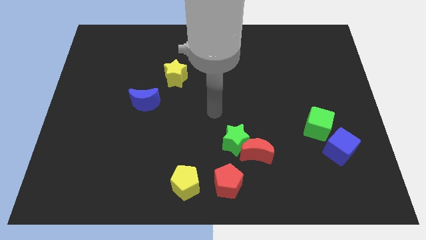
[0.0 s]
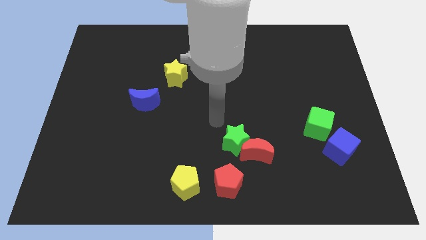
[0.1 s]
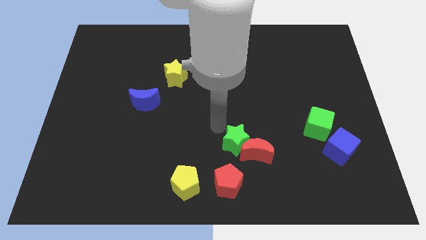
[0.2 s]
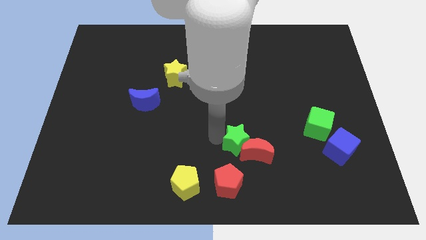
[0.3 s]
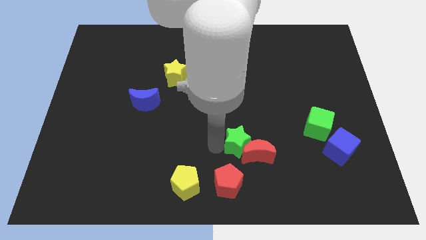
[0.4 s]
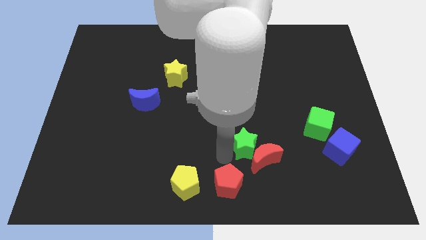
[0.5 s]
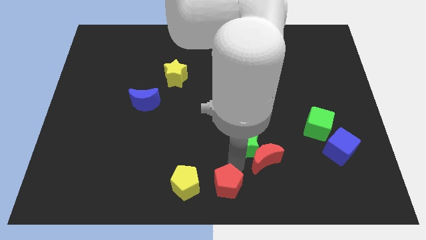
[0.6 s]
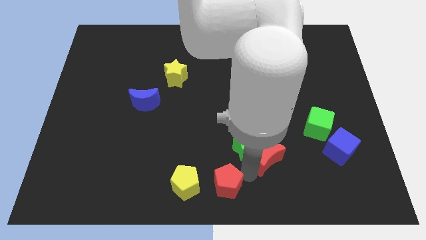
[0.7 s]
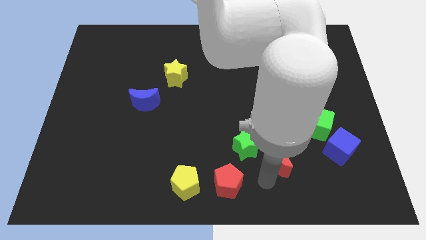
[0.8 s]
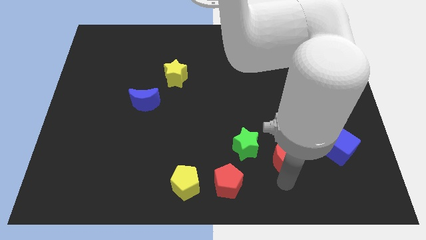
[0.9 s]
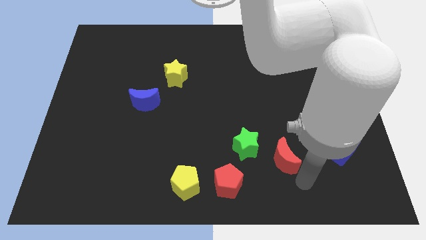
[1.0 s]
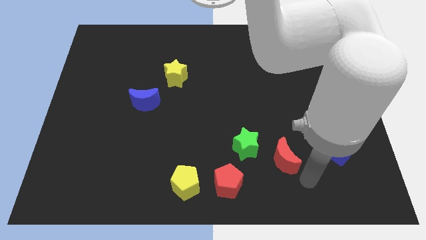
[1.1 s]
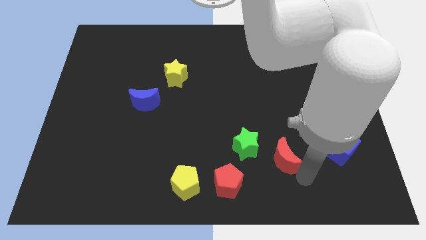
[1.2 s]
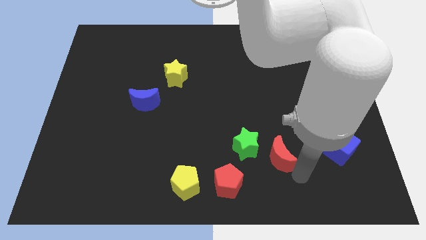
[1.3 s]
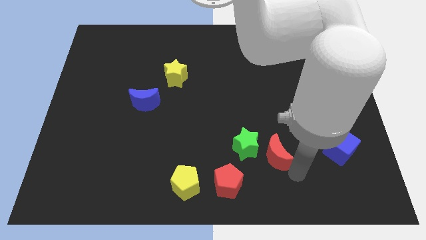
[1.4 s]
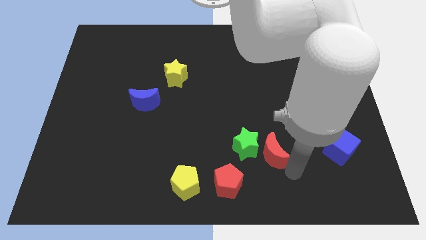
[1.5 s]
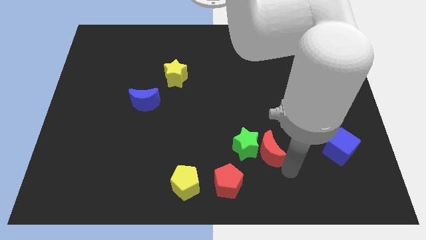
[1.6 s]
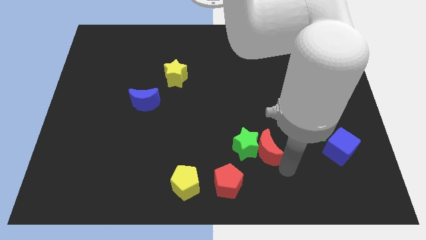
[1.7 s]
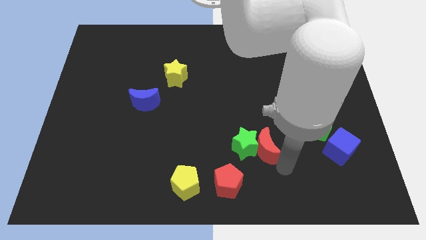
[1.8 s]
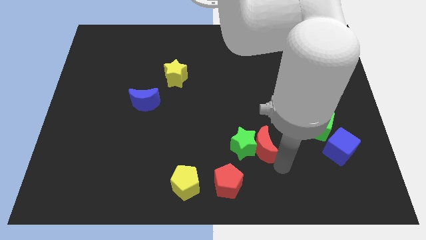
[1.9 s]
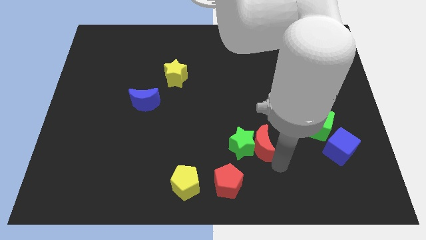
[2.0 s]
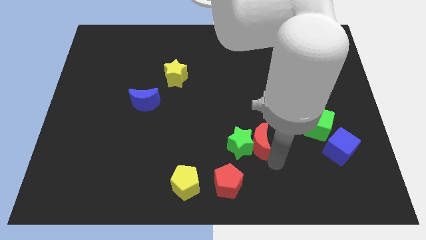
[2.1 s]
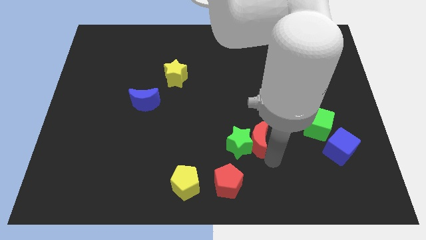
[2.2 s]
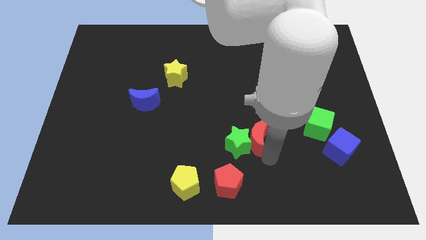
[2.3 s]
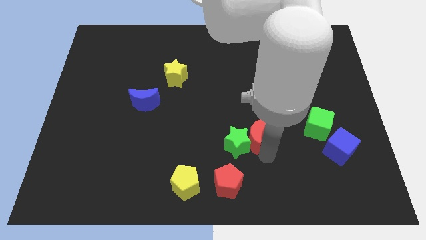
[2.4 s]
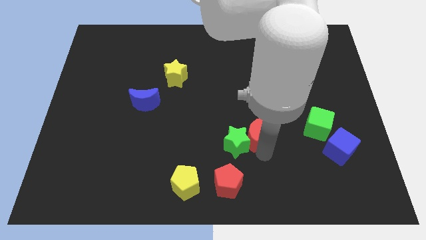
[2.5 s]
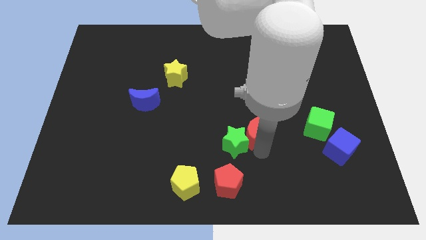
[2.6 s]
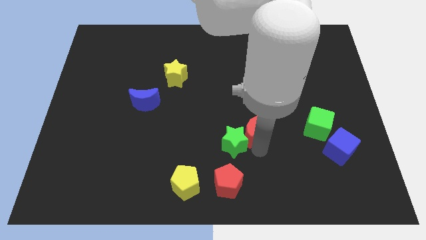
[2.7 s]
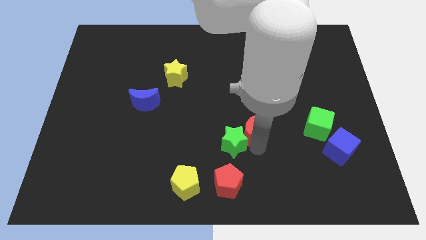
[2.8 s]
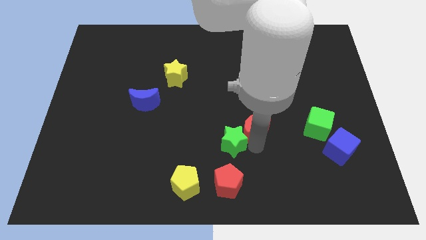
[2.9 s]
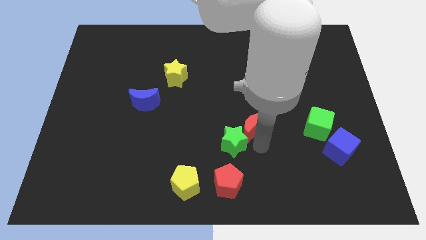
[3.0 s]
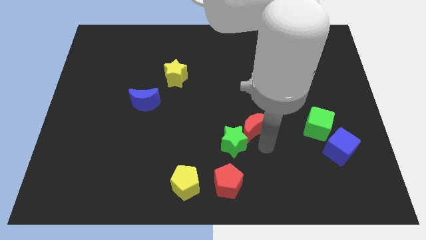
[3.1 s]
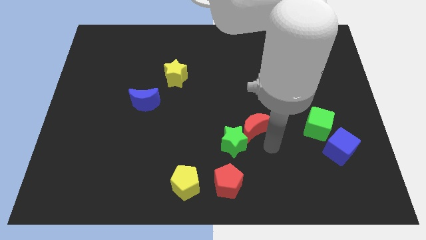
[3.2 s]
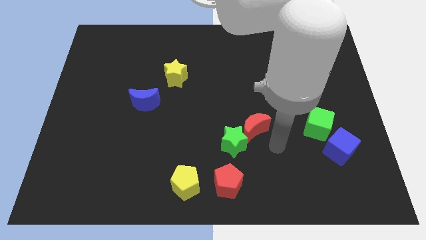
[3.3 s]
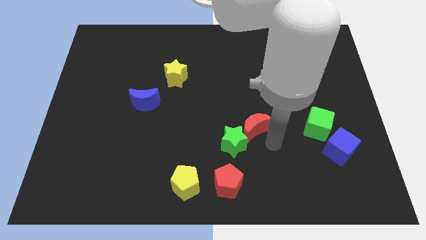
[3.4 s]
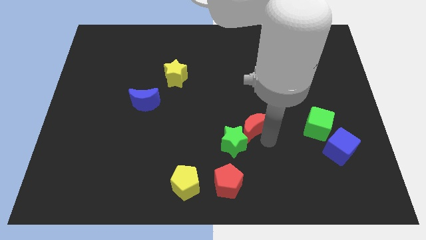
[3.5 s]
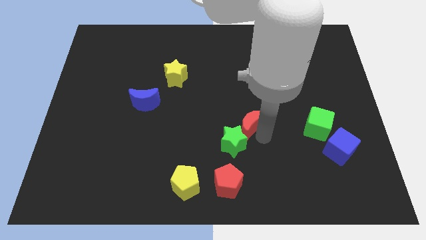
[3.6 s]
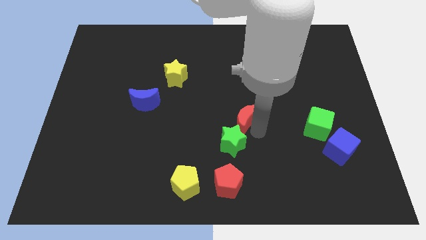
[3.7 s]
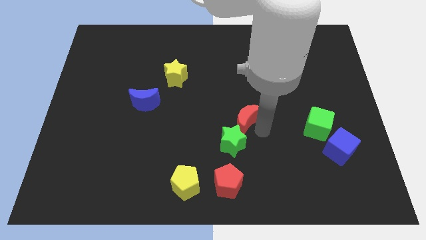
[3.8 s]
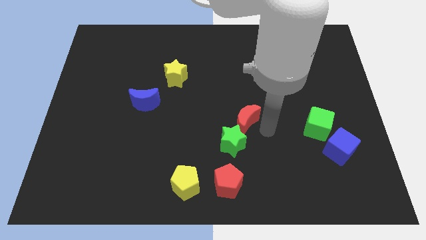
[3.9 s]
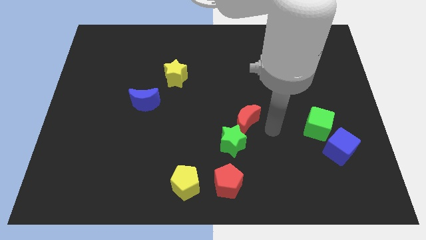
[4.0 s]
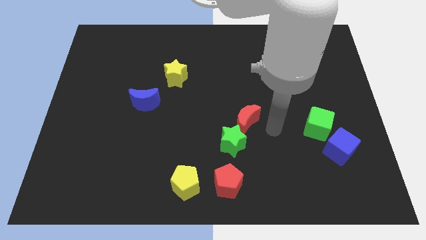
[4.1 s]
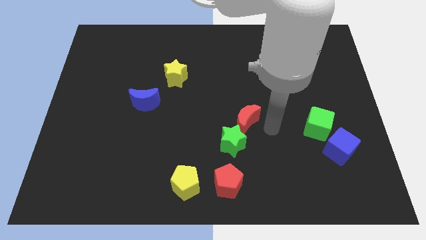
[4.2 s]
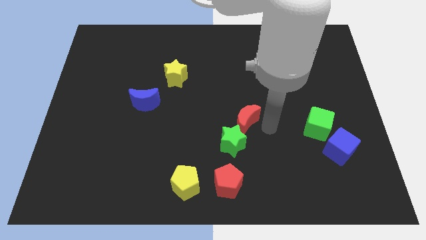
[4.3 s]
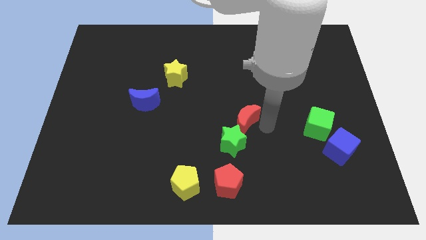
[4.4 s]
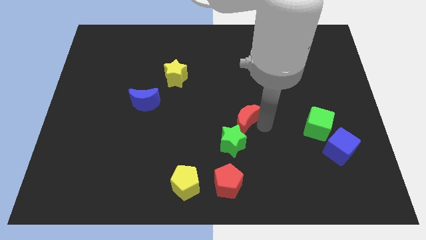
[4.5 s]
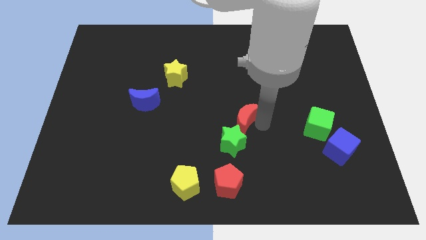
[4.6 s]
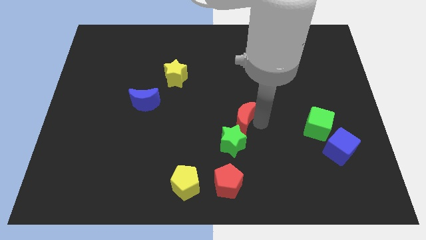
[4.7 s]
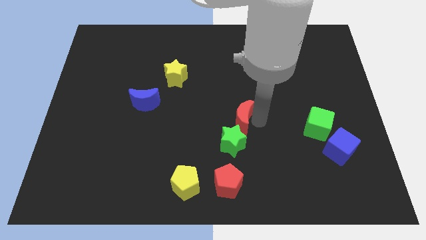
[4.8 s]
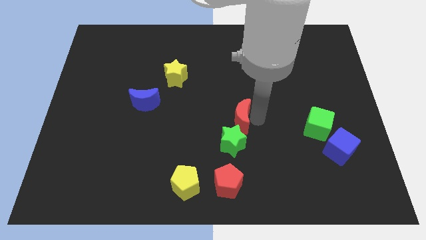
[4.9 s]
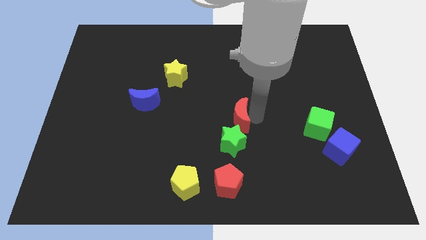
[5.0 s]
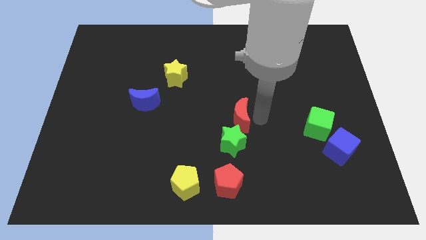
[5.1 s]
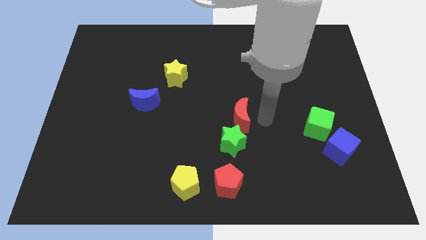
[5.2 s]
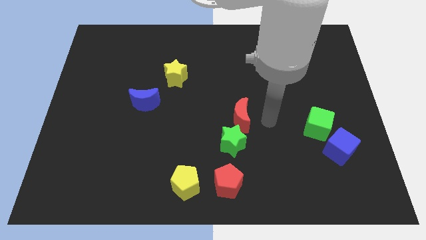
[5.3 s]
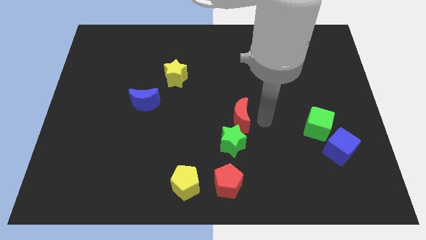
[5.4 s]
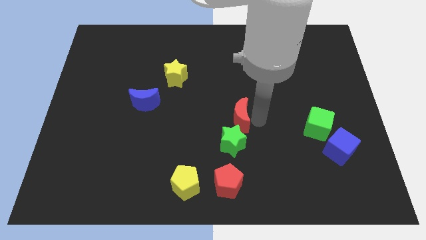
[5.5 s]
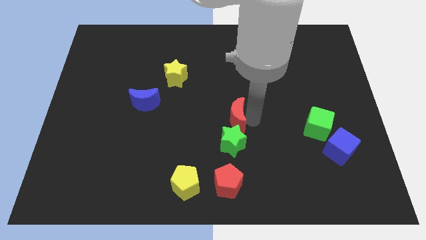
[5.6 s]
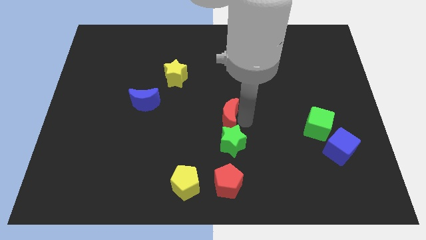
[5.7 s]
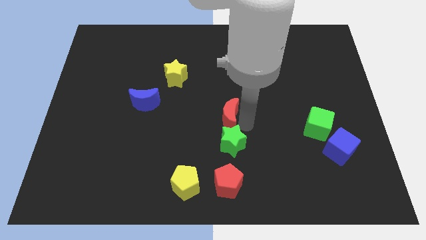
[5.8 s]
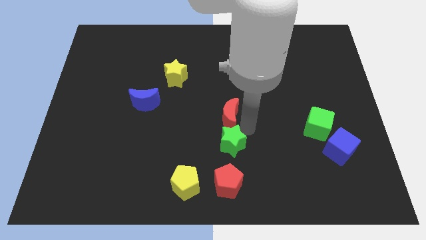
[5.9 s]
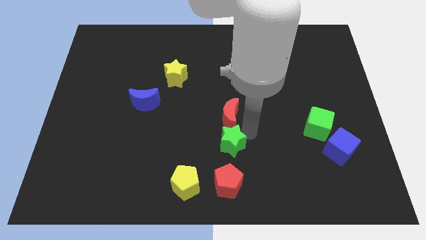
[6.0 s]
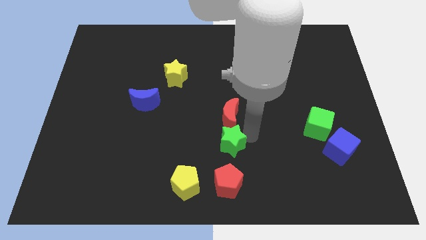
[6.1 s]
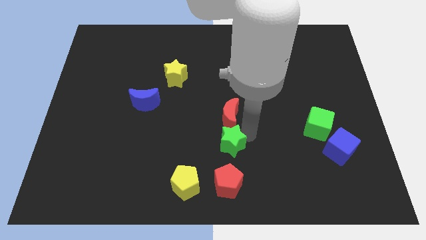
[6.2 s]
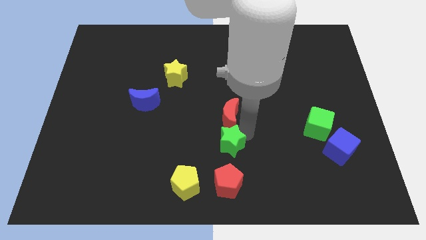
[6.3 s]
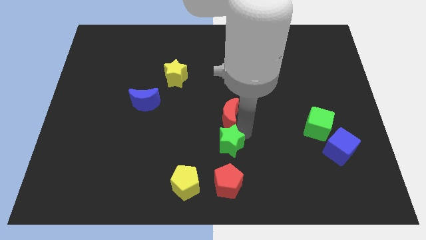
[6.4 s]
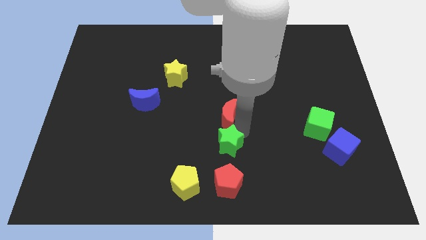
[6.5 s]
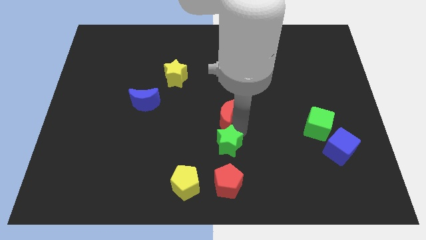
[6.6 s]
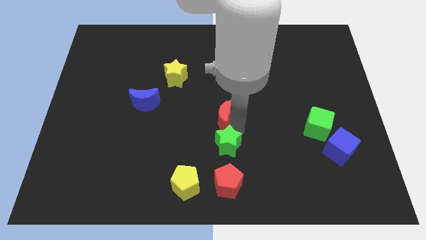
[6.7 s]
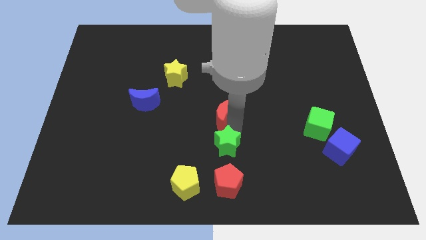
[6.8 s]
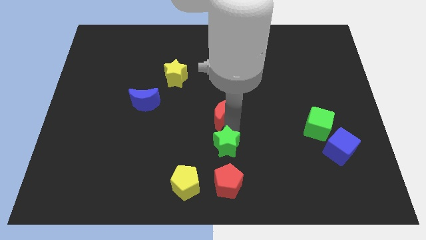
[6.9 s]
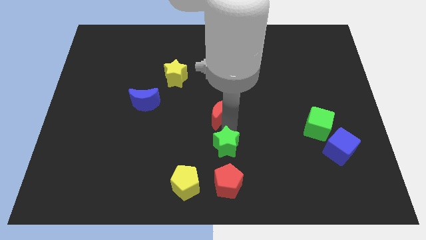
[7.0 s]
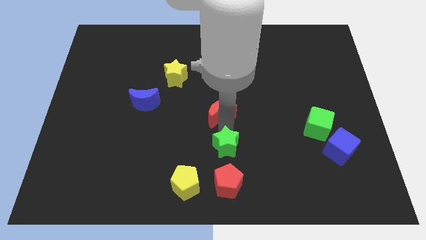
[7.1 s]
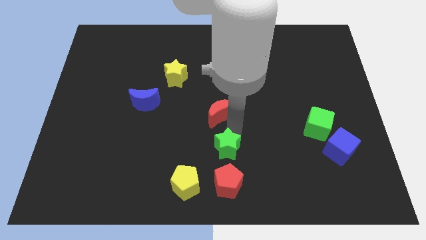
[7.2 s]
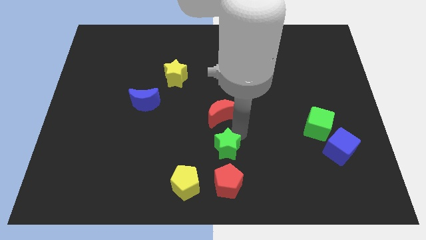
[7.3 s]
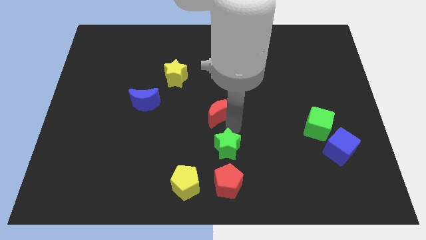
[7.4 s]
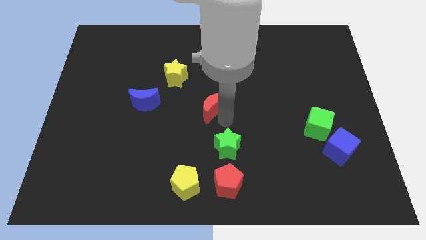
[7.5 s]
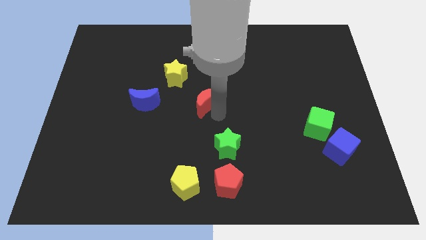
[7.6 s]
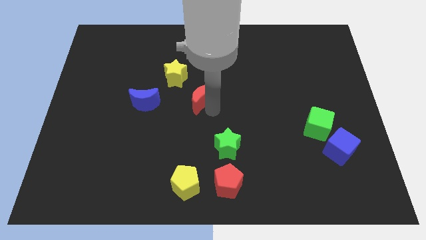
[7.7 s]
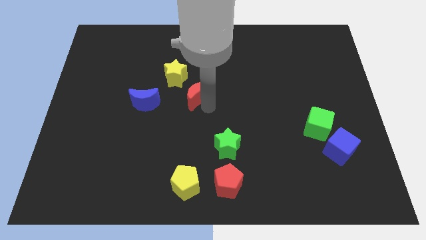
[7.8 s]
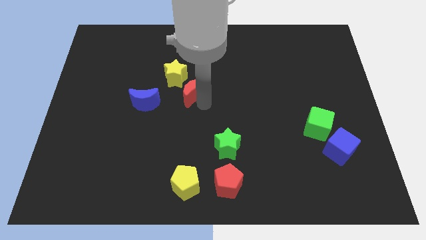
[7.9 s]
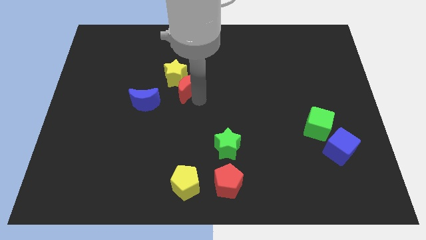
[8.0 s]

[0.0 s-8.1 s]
put the red moon close to the yellow star
